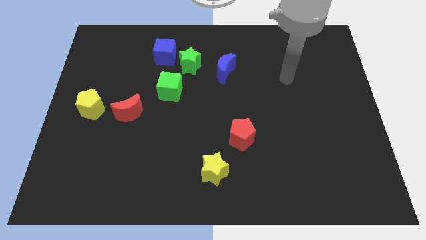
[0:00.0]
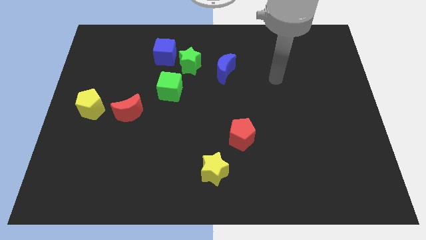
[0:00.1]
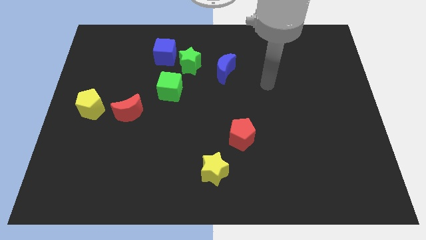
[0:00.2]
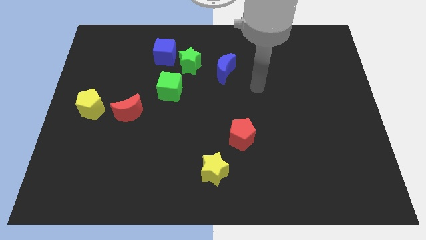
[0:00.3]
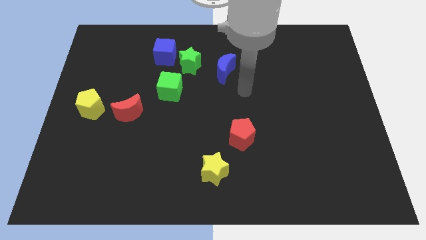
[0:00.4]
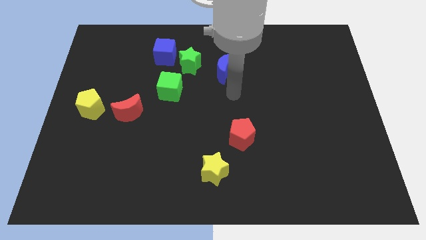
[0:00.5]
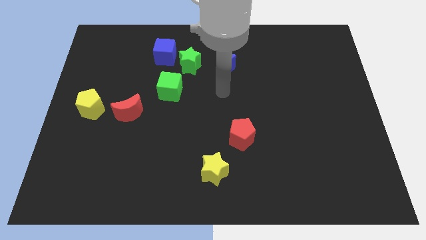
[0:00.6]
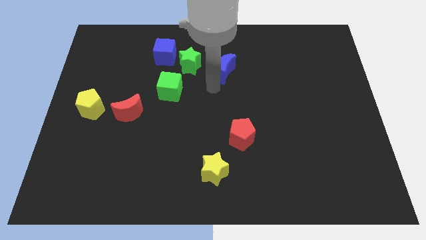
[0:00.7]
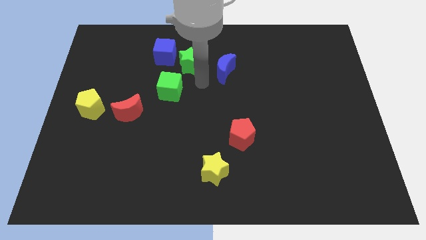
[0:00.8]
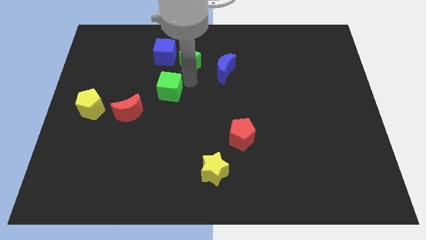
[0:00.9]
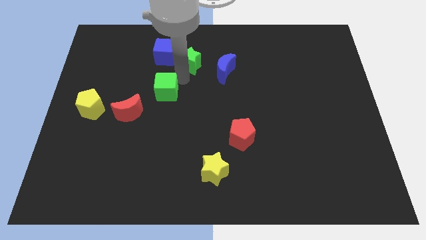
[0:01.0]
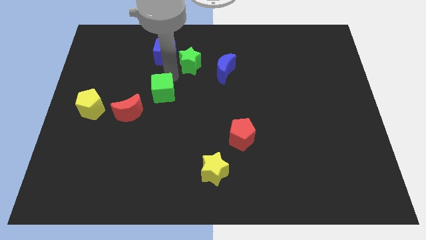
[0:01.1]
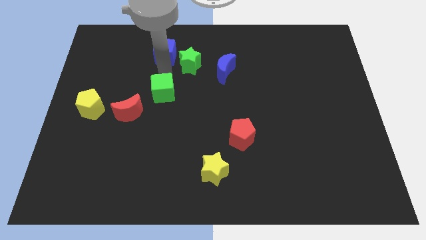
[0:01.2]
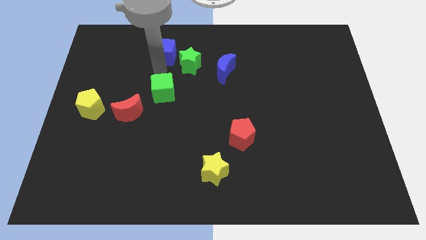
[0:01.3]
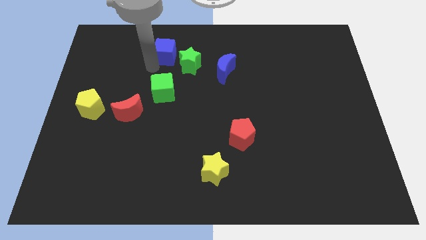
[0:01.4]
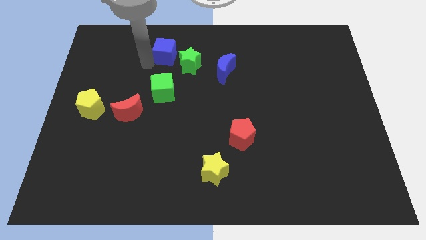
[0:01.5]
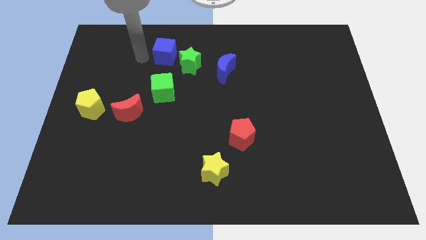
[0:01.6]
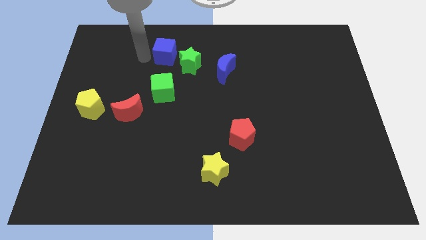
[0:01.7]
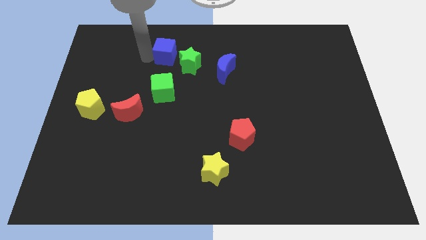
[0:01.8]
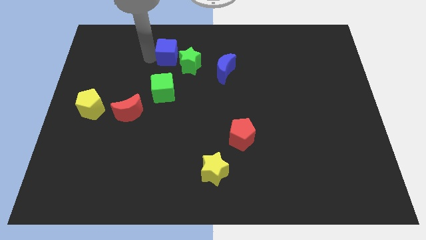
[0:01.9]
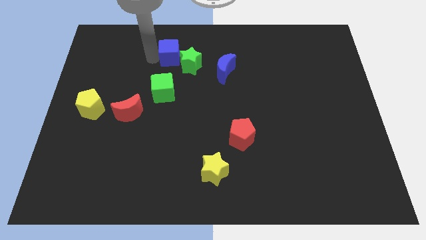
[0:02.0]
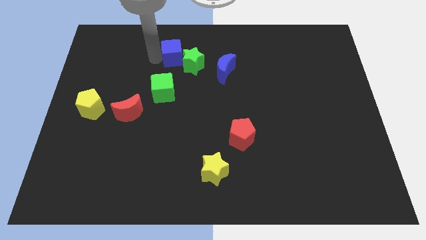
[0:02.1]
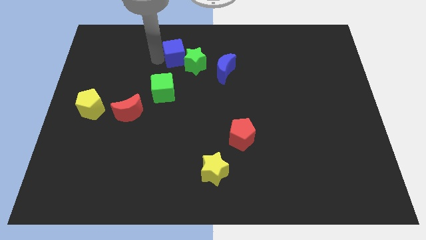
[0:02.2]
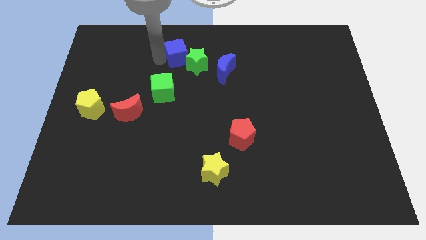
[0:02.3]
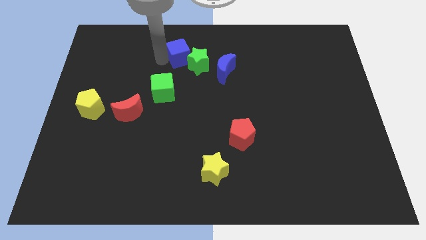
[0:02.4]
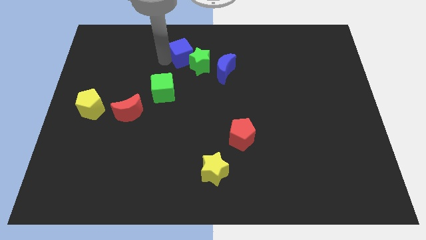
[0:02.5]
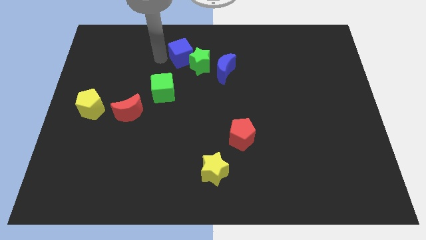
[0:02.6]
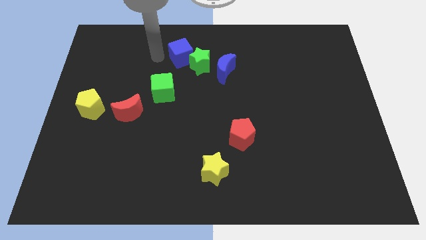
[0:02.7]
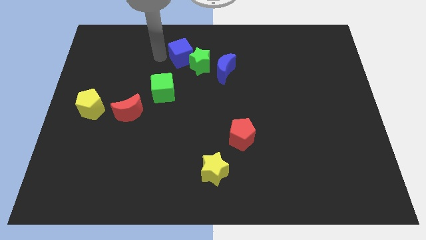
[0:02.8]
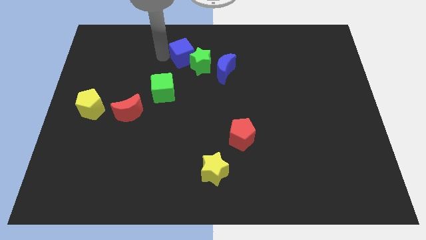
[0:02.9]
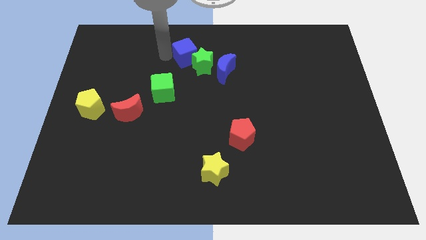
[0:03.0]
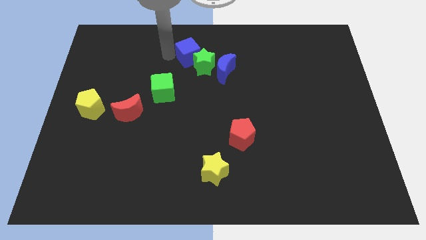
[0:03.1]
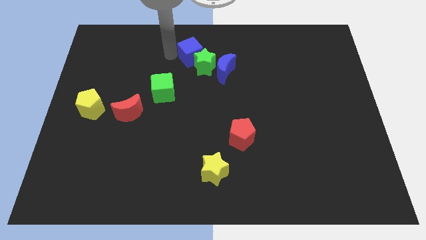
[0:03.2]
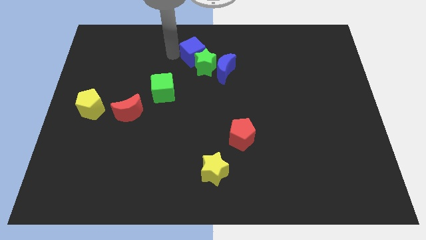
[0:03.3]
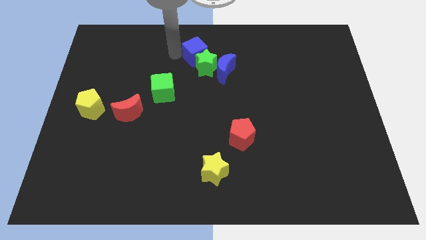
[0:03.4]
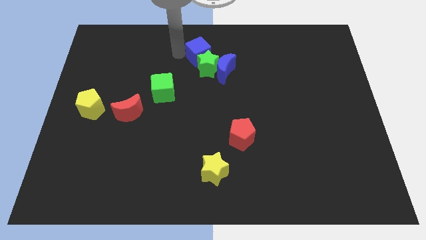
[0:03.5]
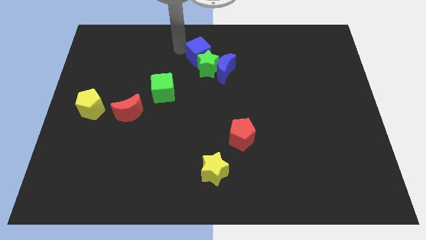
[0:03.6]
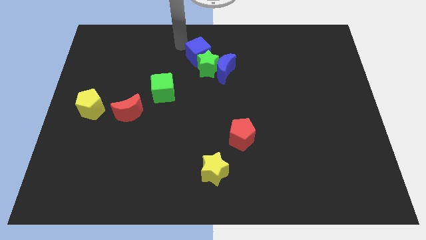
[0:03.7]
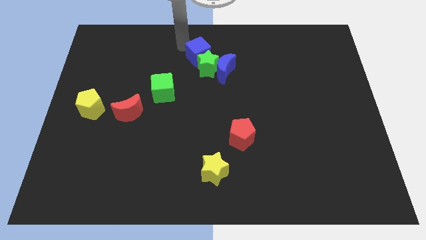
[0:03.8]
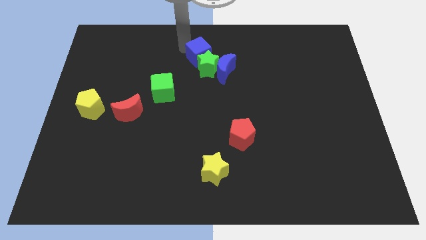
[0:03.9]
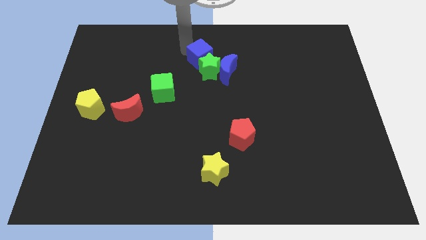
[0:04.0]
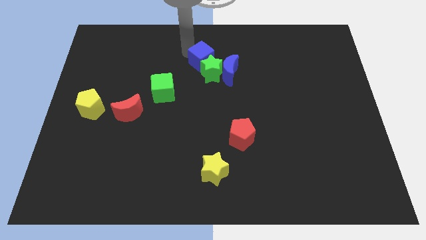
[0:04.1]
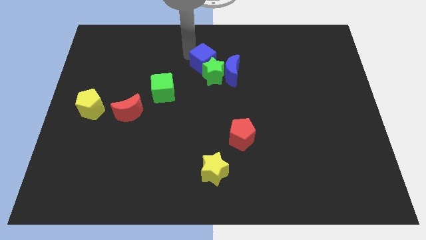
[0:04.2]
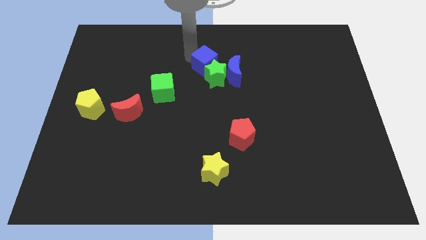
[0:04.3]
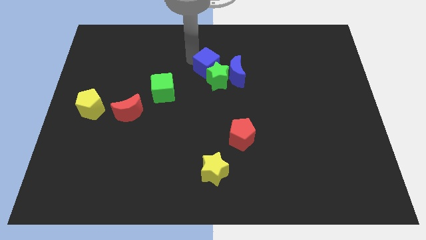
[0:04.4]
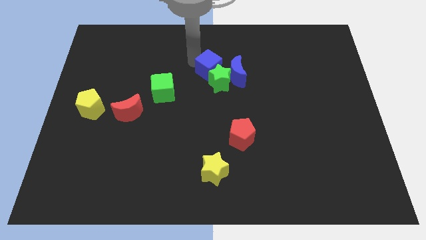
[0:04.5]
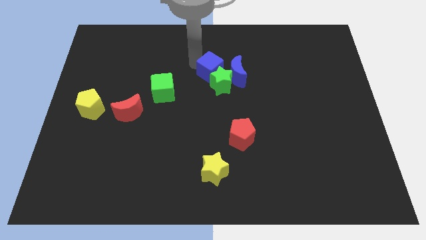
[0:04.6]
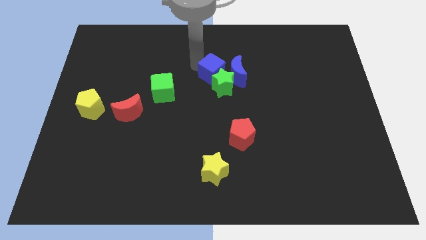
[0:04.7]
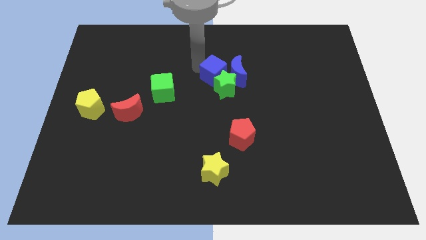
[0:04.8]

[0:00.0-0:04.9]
put the blue cube next to the blue moon

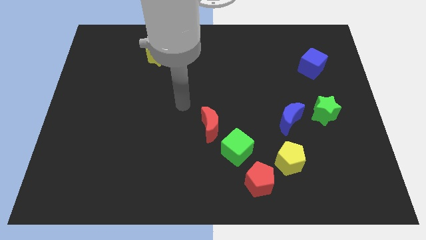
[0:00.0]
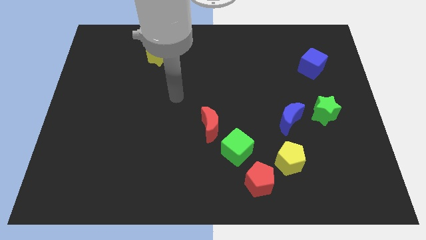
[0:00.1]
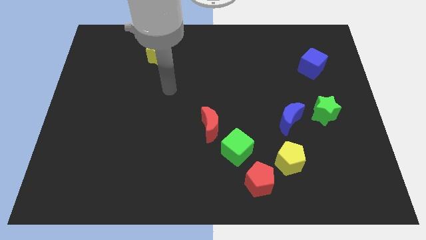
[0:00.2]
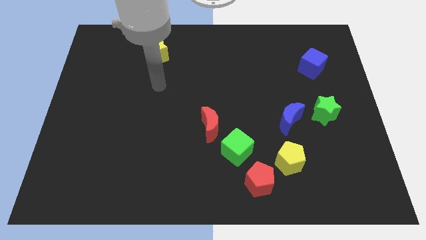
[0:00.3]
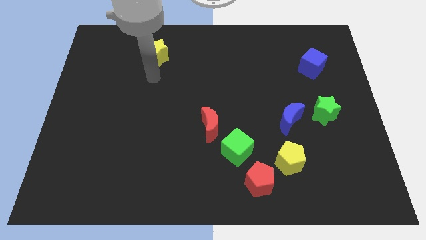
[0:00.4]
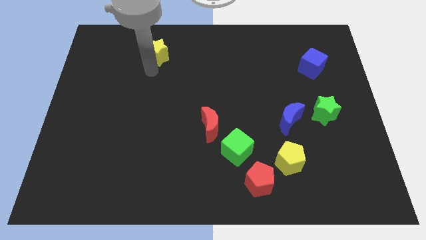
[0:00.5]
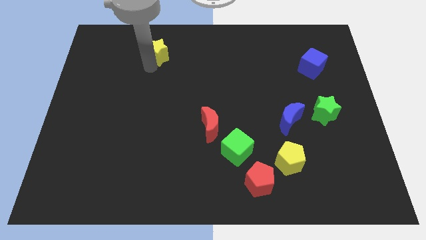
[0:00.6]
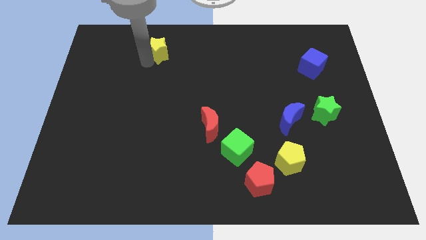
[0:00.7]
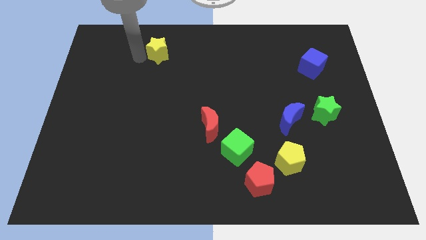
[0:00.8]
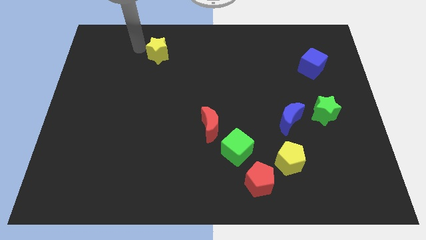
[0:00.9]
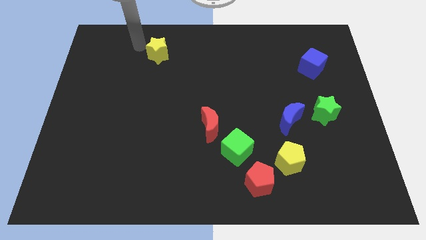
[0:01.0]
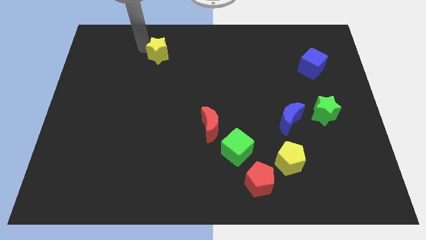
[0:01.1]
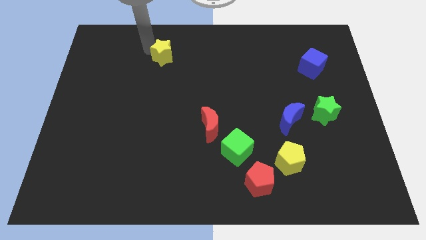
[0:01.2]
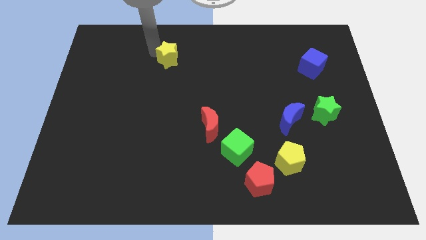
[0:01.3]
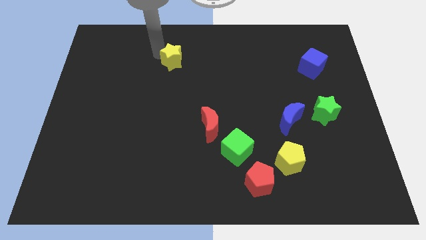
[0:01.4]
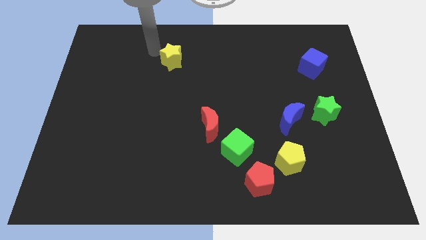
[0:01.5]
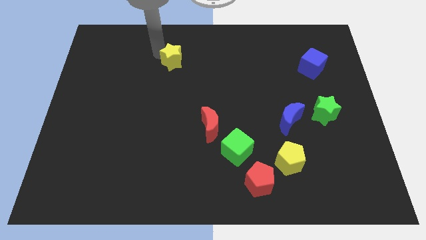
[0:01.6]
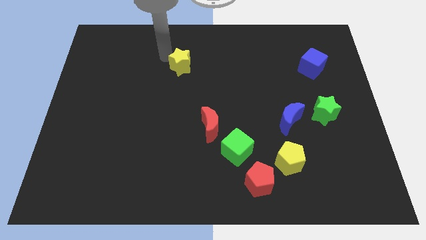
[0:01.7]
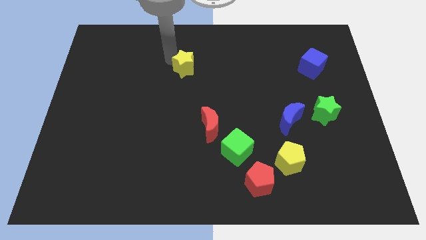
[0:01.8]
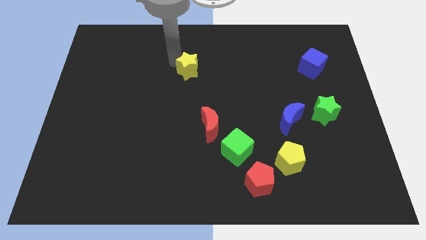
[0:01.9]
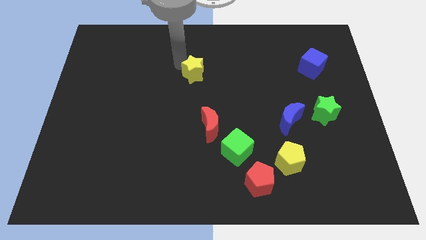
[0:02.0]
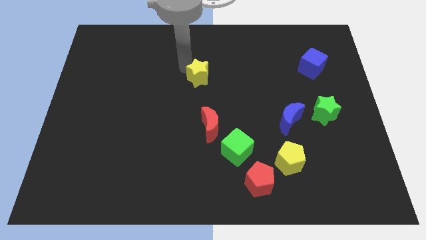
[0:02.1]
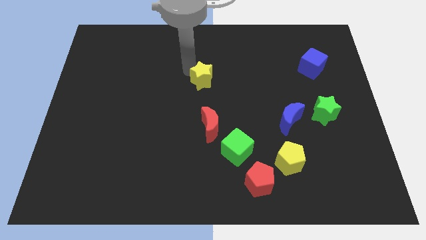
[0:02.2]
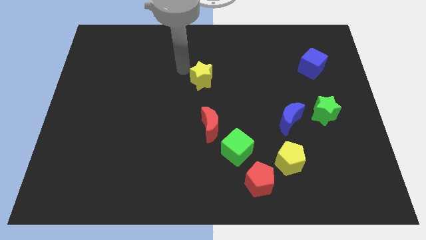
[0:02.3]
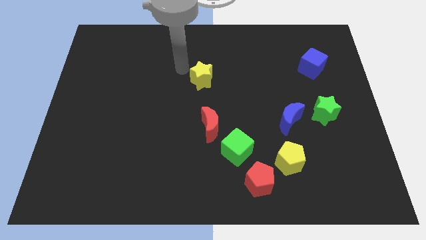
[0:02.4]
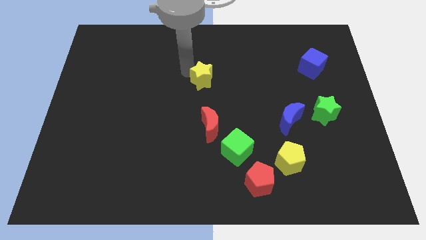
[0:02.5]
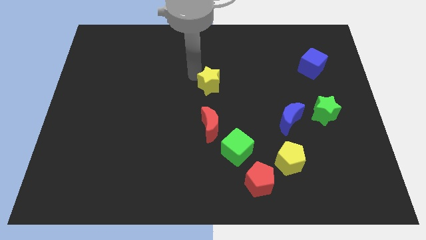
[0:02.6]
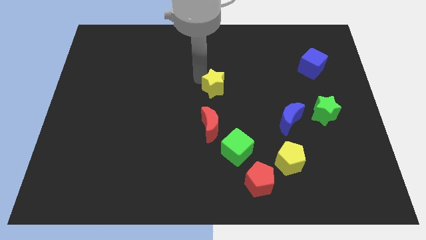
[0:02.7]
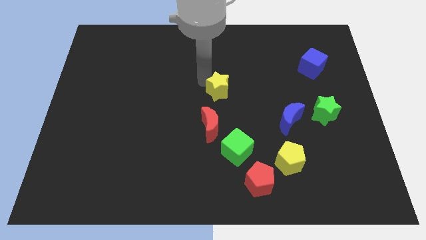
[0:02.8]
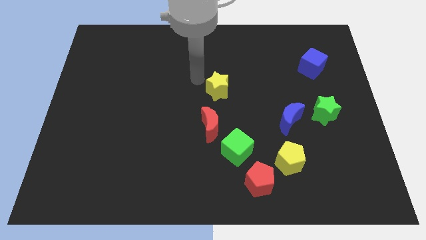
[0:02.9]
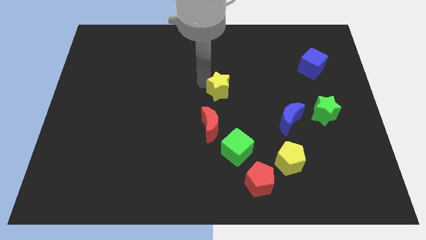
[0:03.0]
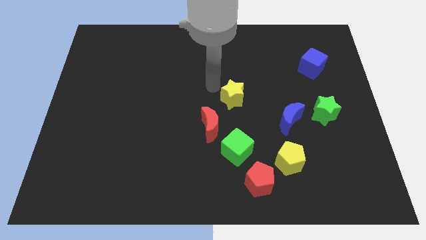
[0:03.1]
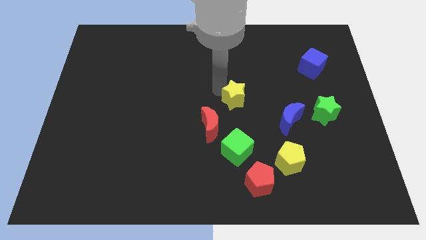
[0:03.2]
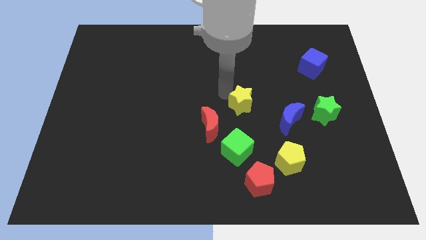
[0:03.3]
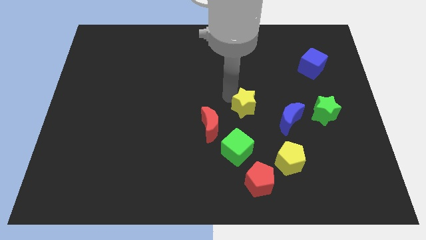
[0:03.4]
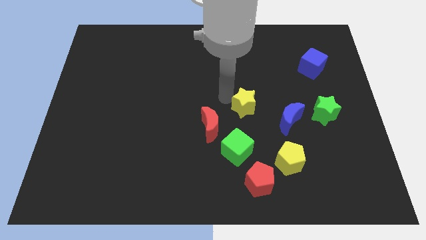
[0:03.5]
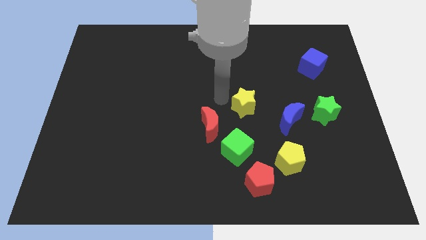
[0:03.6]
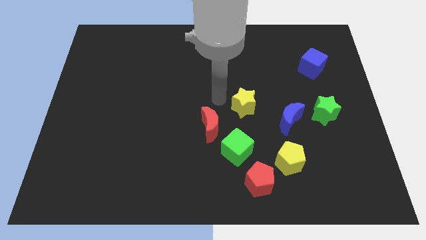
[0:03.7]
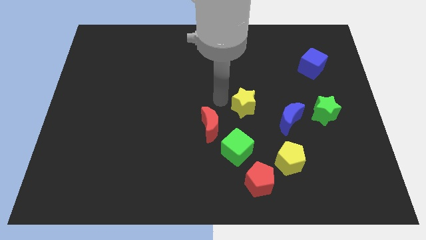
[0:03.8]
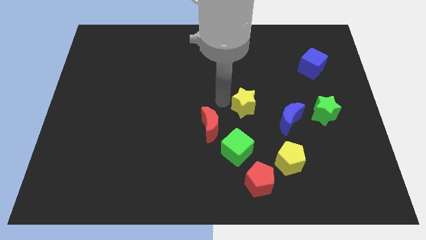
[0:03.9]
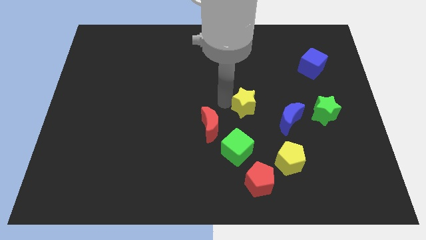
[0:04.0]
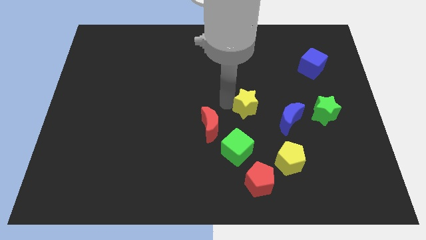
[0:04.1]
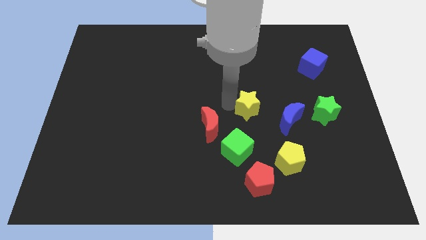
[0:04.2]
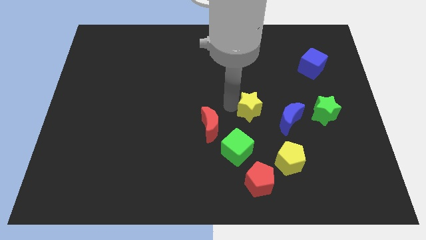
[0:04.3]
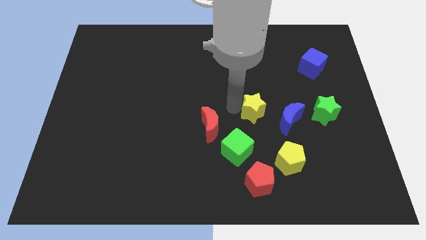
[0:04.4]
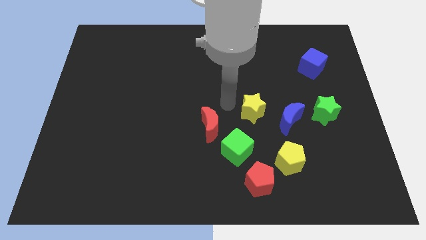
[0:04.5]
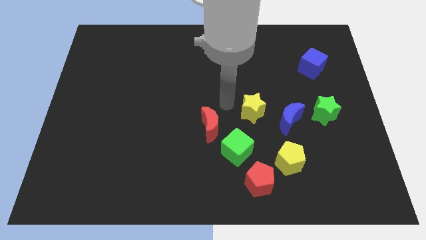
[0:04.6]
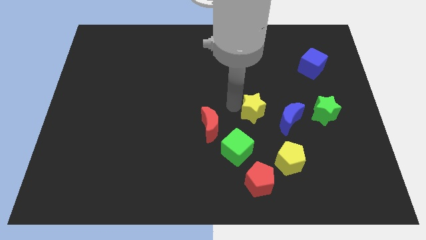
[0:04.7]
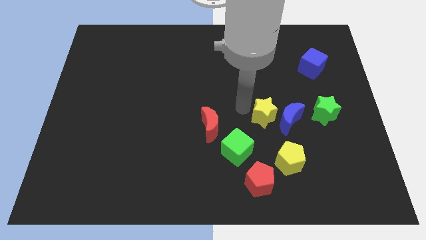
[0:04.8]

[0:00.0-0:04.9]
push the yellow star to the blue moon
